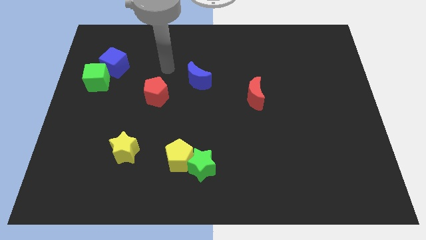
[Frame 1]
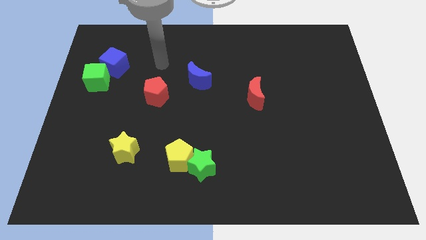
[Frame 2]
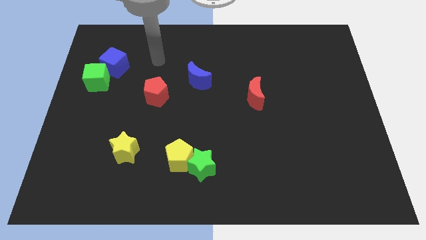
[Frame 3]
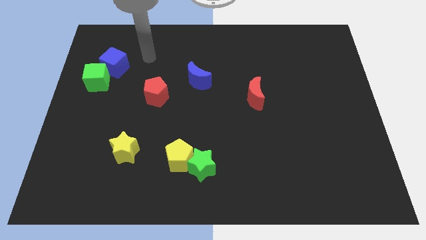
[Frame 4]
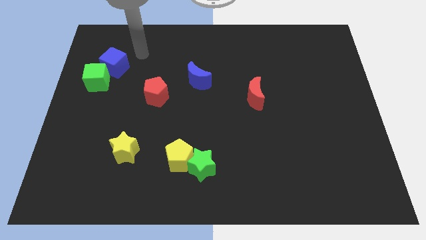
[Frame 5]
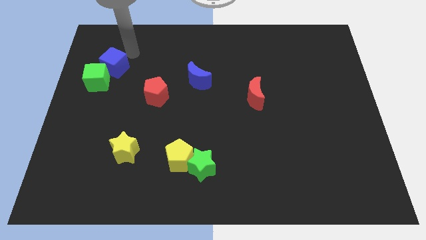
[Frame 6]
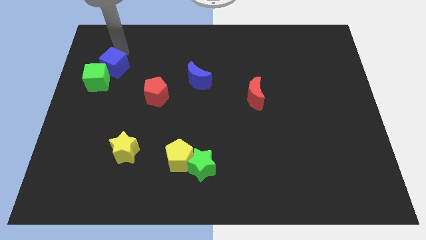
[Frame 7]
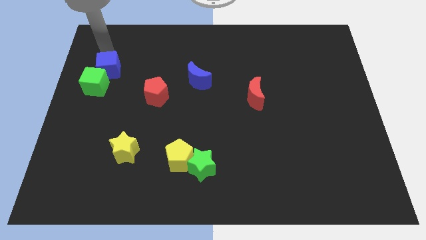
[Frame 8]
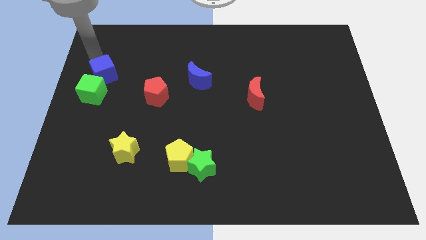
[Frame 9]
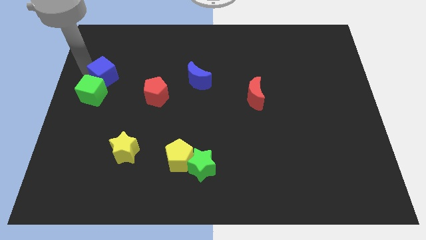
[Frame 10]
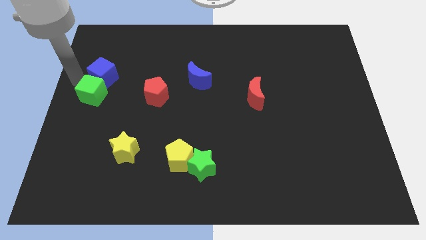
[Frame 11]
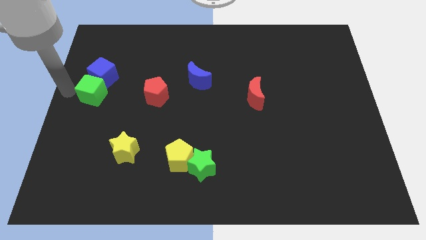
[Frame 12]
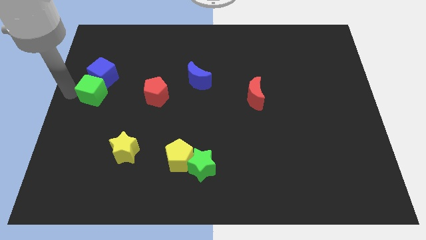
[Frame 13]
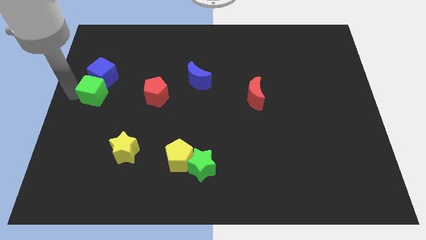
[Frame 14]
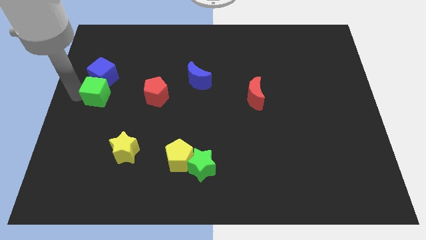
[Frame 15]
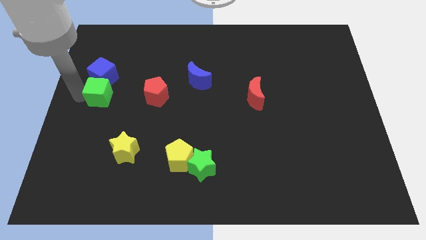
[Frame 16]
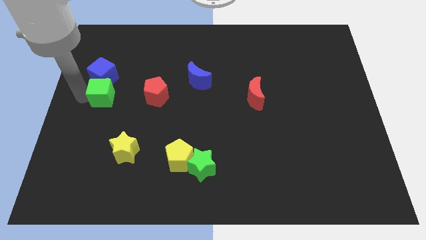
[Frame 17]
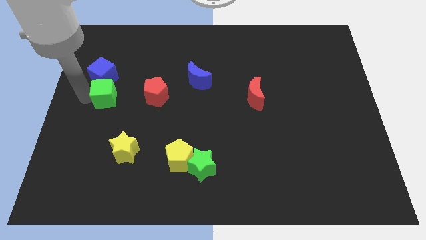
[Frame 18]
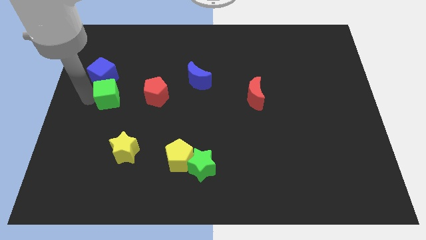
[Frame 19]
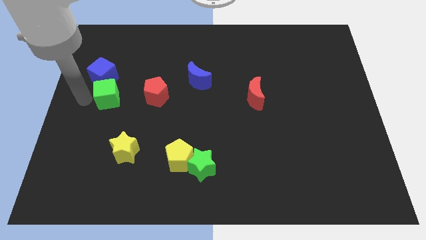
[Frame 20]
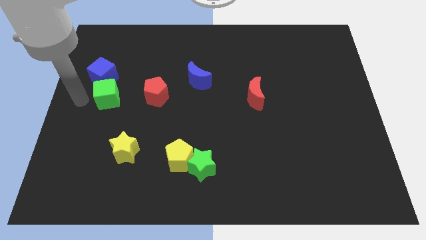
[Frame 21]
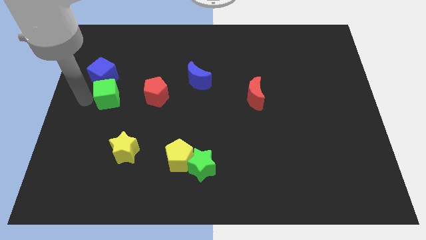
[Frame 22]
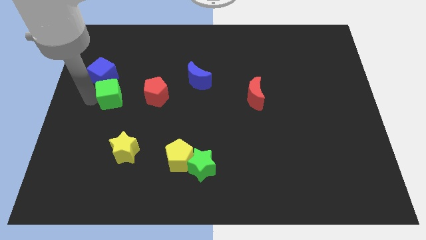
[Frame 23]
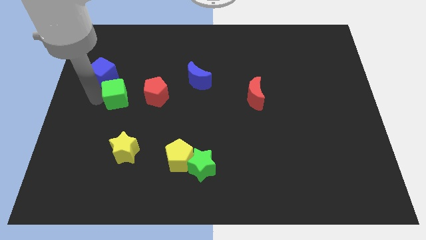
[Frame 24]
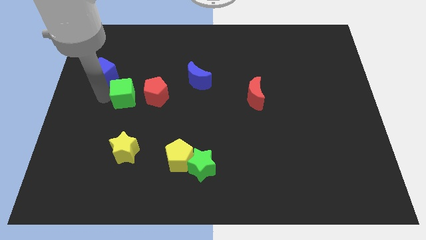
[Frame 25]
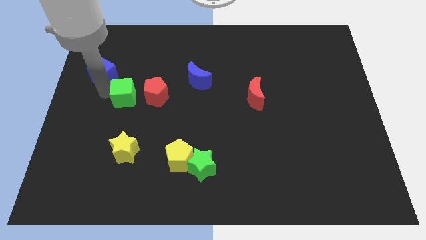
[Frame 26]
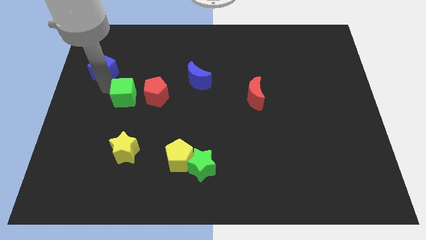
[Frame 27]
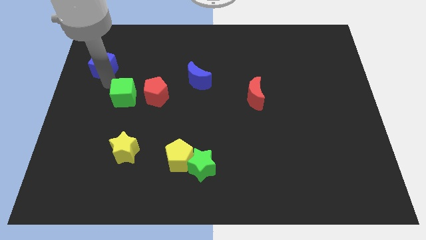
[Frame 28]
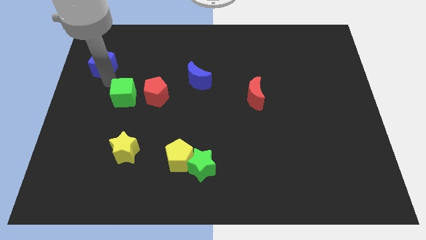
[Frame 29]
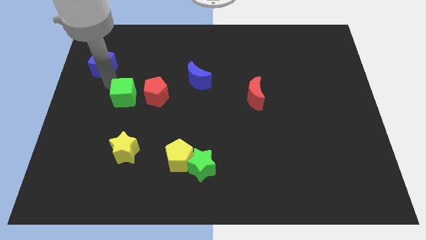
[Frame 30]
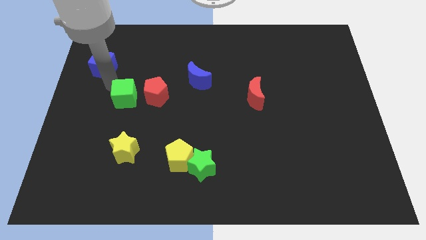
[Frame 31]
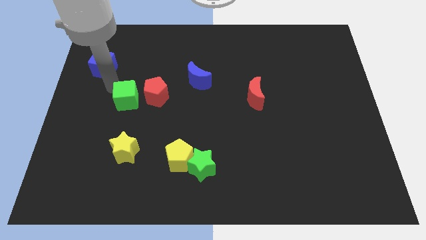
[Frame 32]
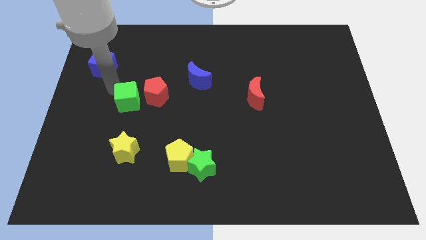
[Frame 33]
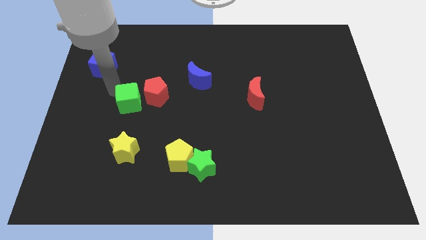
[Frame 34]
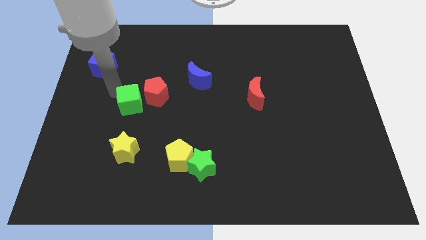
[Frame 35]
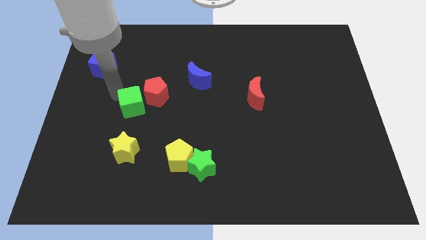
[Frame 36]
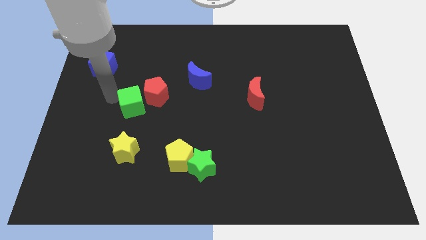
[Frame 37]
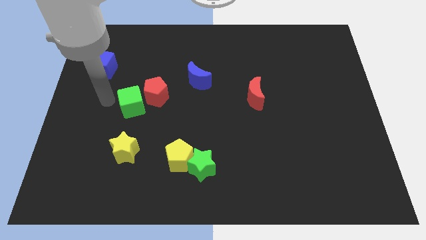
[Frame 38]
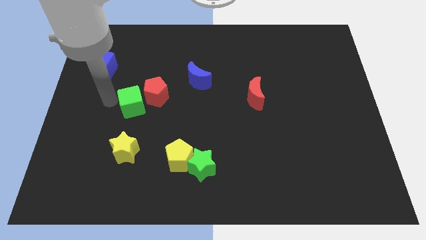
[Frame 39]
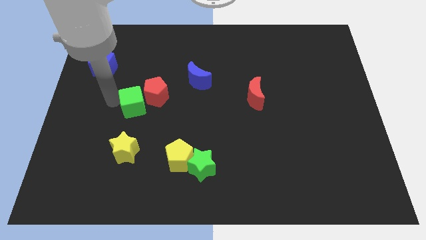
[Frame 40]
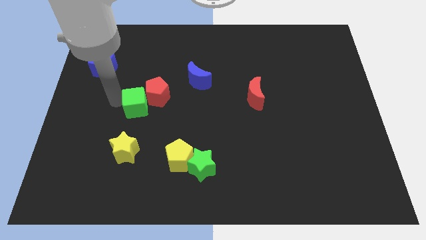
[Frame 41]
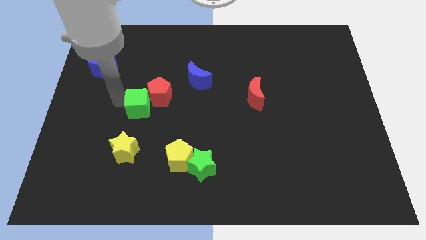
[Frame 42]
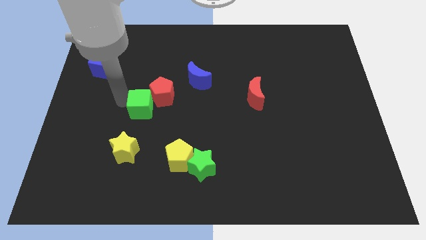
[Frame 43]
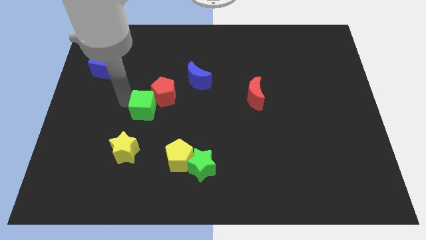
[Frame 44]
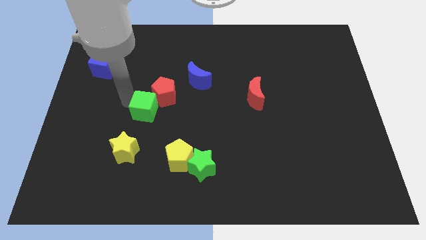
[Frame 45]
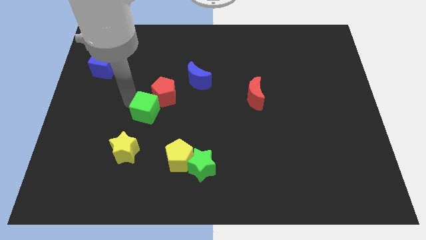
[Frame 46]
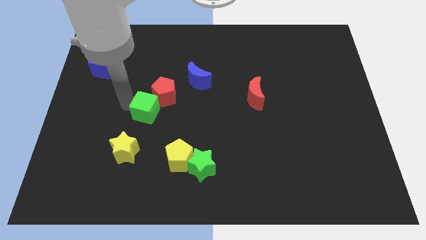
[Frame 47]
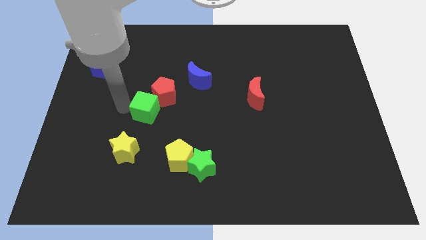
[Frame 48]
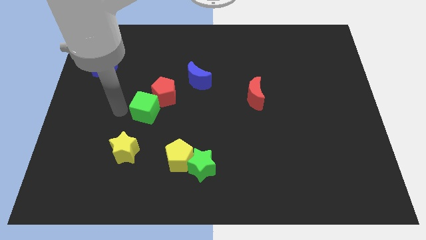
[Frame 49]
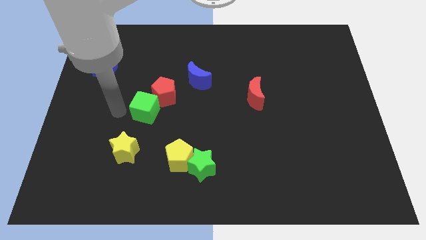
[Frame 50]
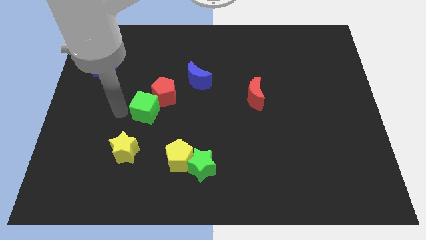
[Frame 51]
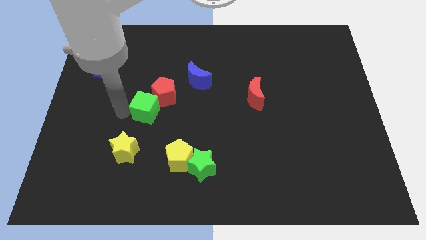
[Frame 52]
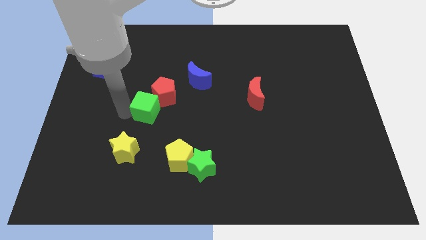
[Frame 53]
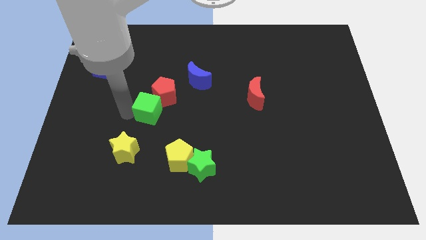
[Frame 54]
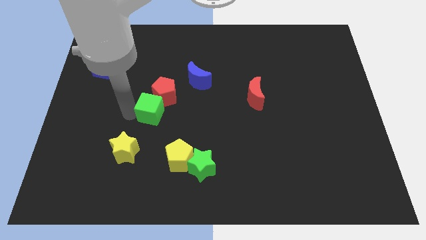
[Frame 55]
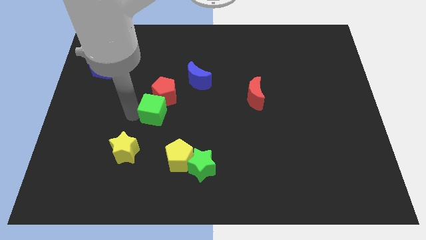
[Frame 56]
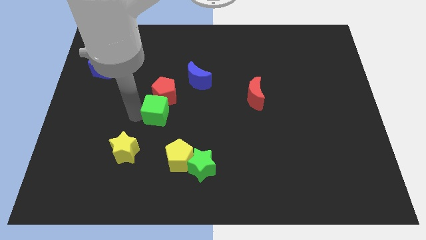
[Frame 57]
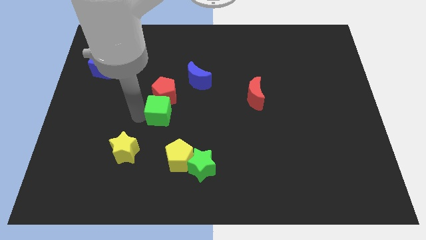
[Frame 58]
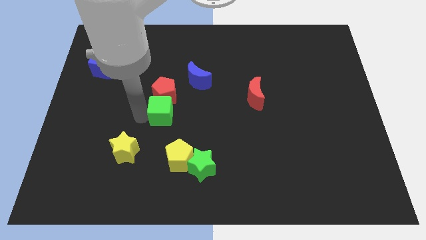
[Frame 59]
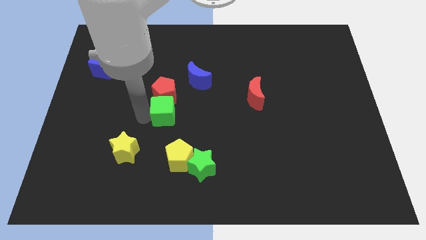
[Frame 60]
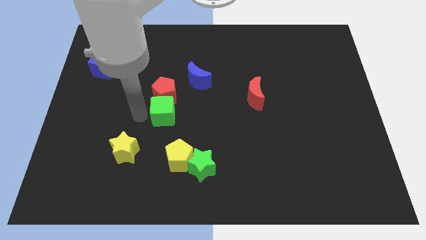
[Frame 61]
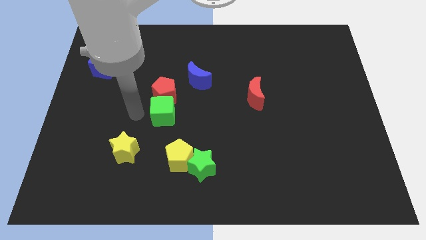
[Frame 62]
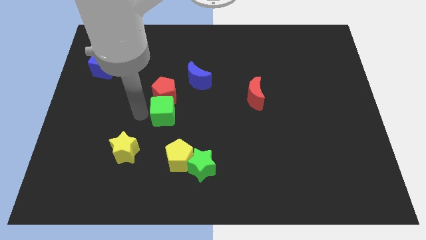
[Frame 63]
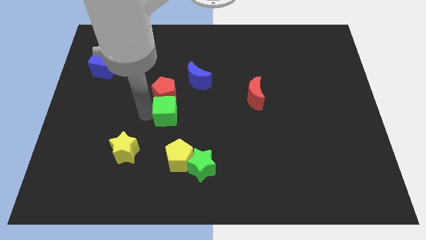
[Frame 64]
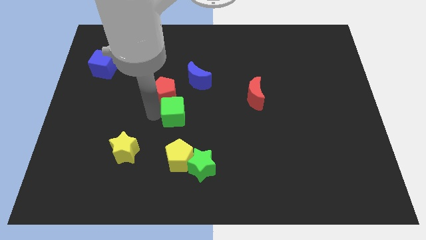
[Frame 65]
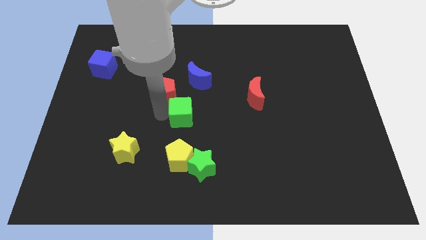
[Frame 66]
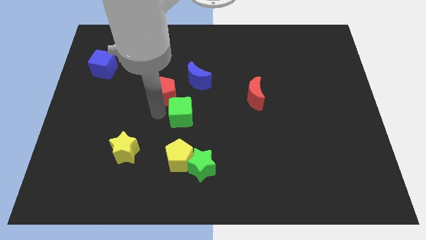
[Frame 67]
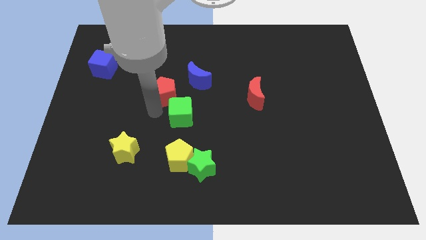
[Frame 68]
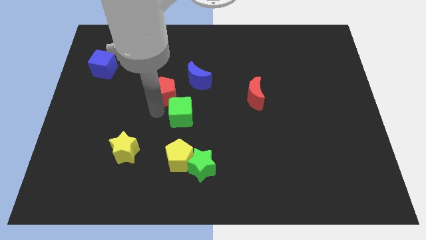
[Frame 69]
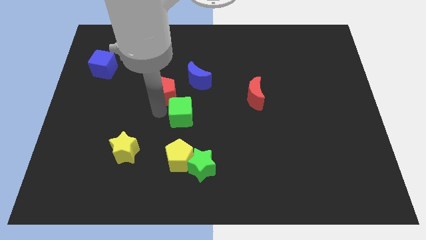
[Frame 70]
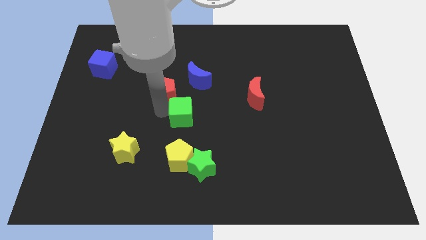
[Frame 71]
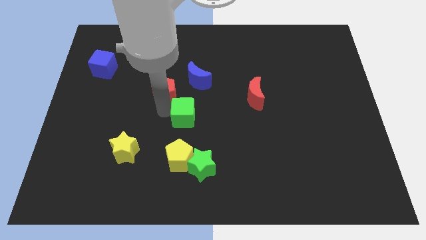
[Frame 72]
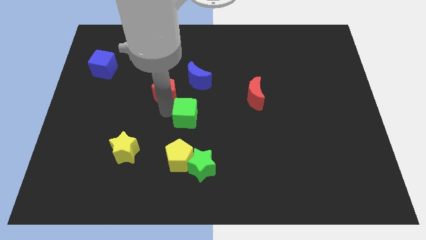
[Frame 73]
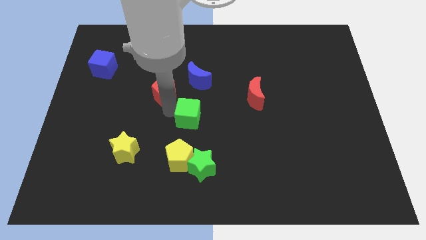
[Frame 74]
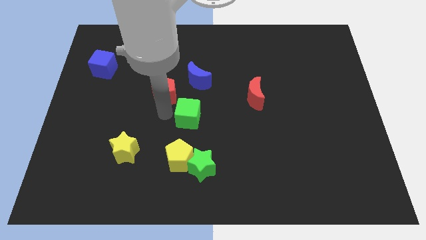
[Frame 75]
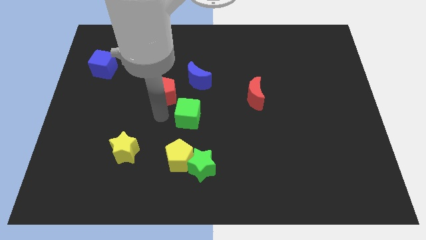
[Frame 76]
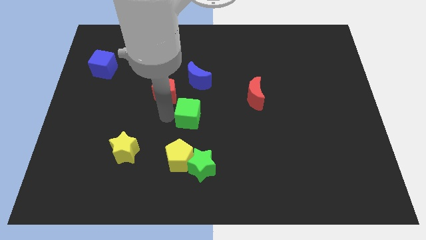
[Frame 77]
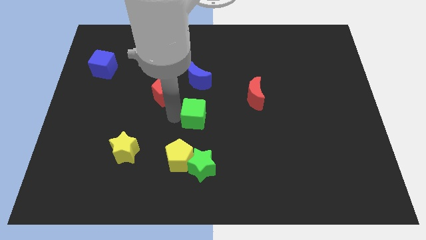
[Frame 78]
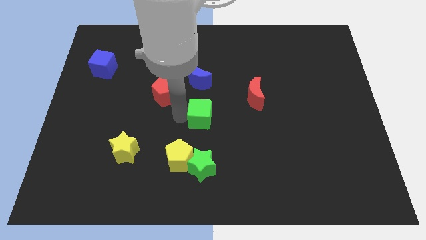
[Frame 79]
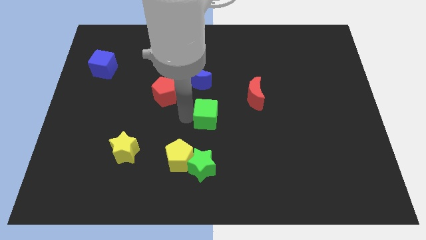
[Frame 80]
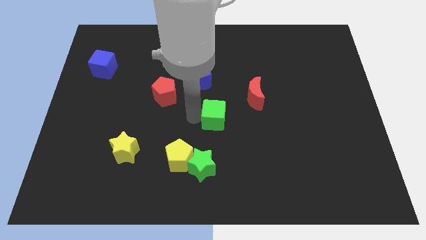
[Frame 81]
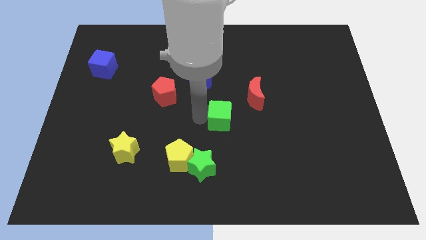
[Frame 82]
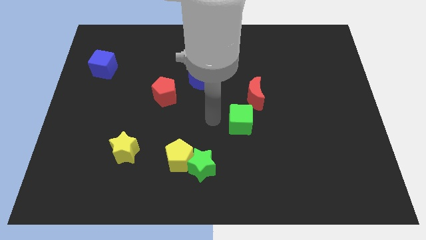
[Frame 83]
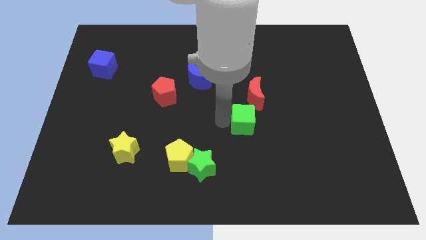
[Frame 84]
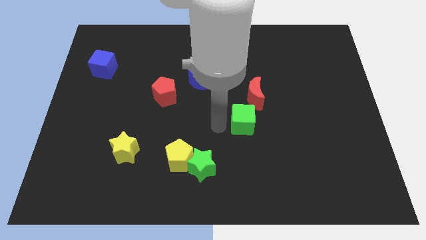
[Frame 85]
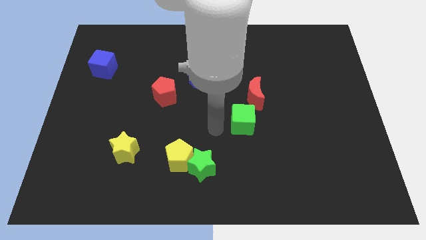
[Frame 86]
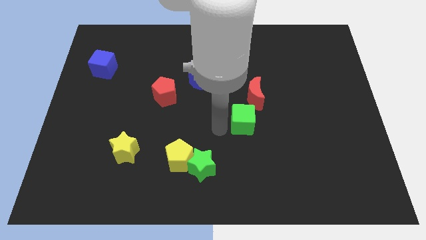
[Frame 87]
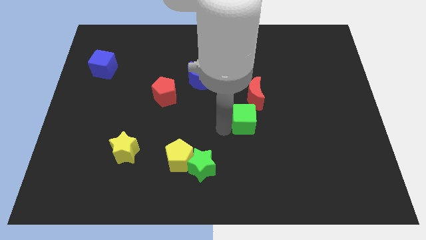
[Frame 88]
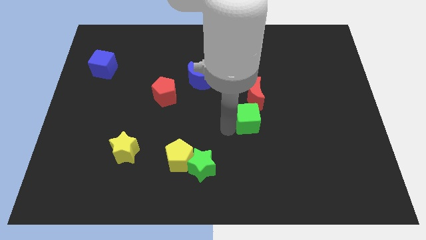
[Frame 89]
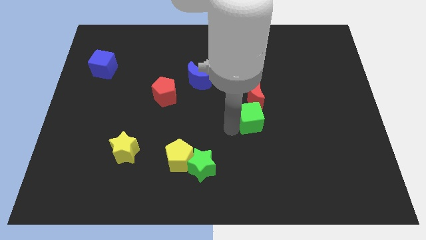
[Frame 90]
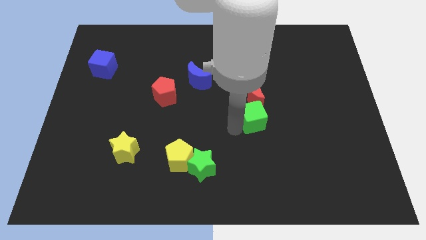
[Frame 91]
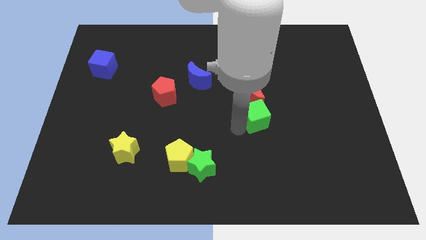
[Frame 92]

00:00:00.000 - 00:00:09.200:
put the green cube to the bottom right side of the red moon
